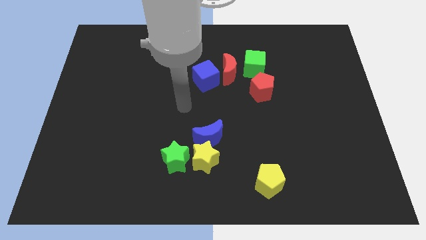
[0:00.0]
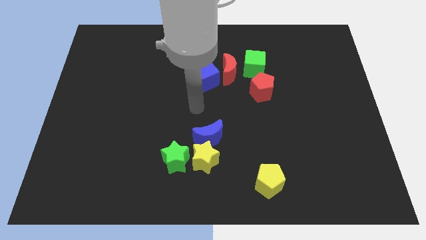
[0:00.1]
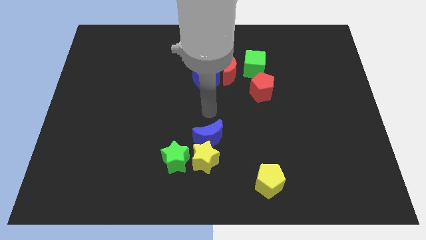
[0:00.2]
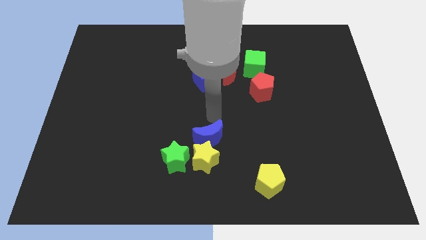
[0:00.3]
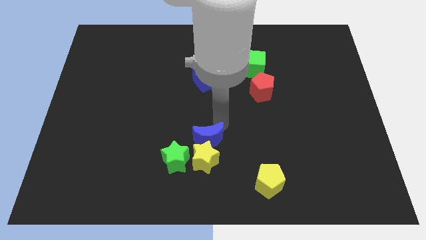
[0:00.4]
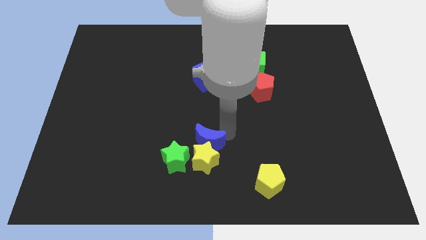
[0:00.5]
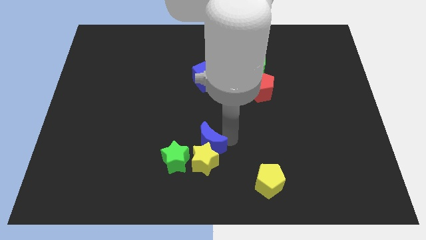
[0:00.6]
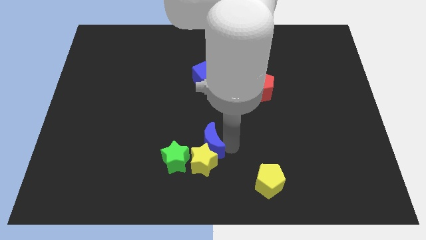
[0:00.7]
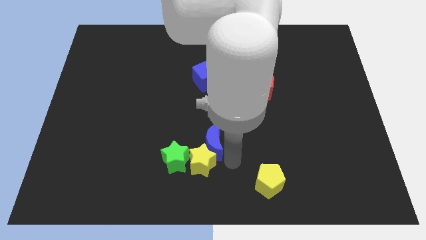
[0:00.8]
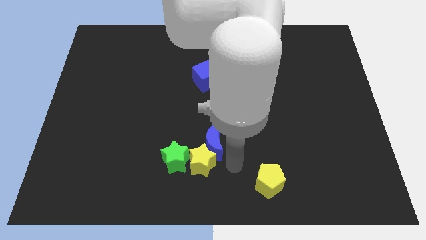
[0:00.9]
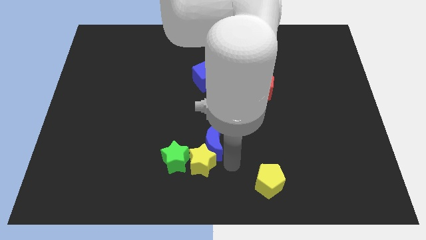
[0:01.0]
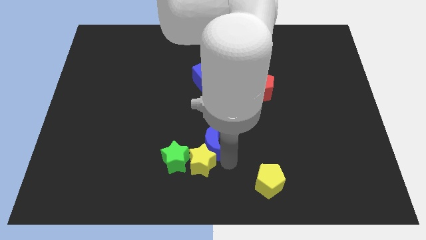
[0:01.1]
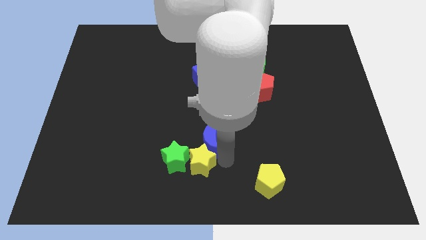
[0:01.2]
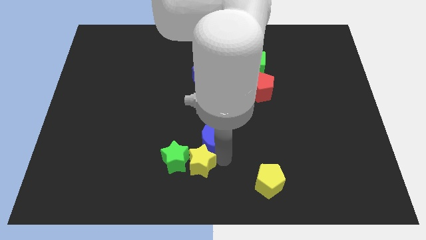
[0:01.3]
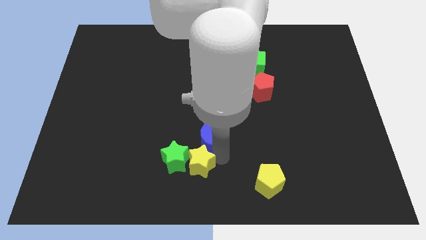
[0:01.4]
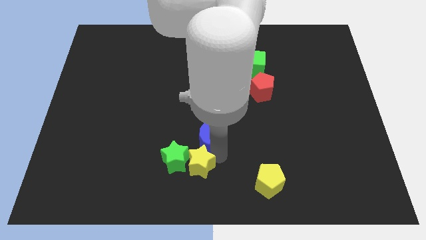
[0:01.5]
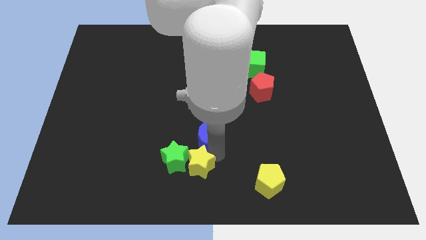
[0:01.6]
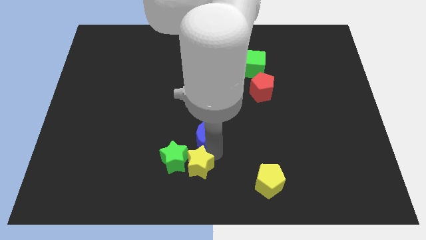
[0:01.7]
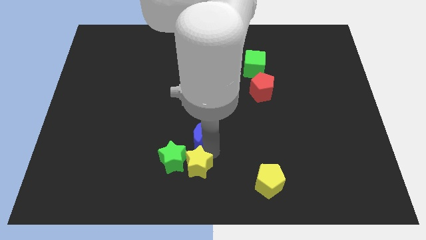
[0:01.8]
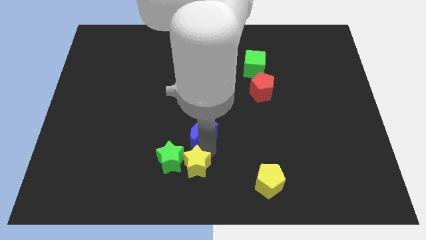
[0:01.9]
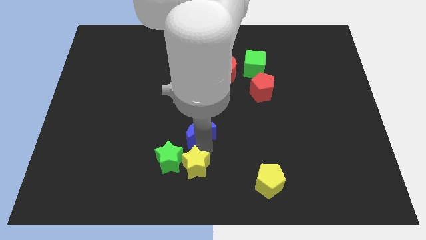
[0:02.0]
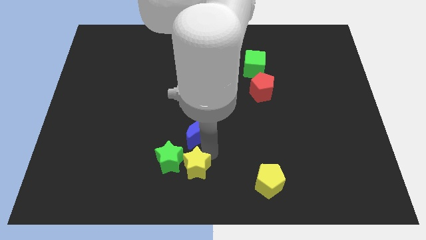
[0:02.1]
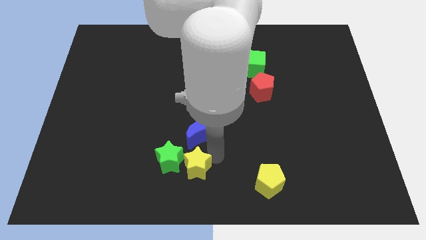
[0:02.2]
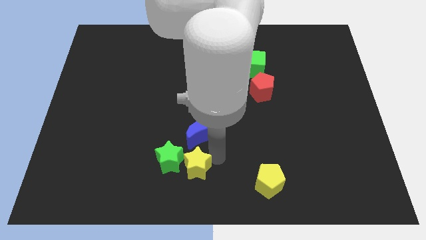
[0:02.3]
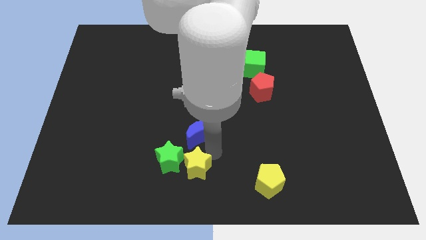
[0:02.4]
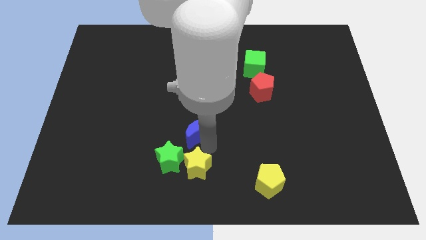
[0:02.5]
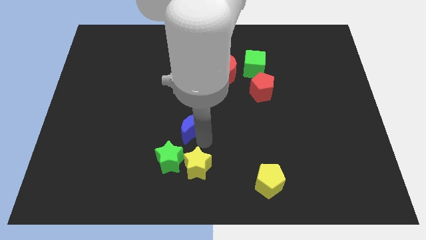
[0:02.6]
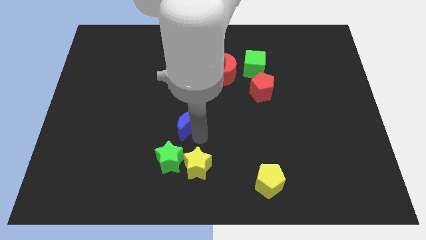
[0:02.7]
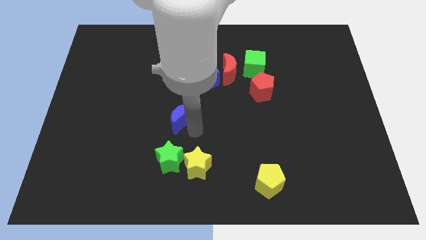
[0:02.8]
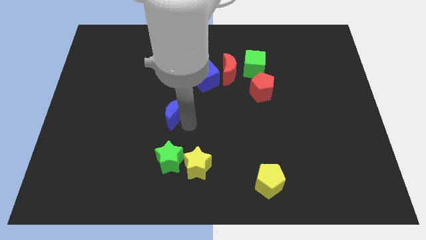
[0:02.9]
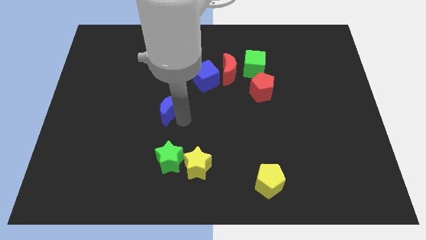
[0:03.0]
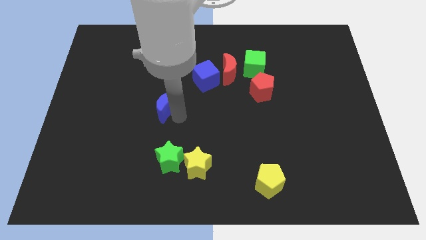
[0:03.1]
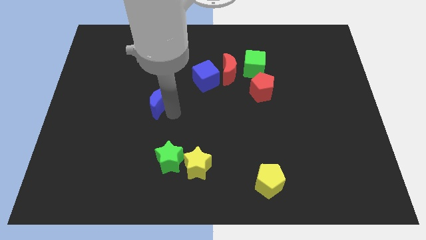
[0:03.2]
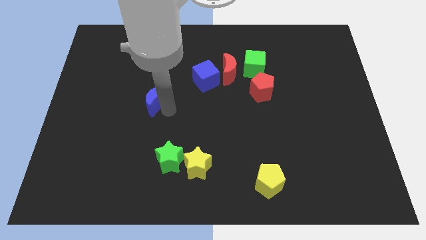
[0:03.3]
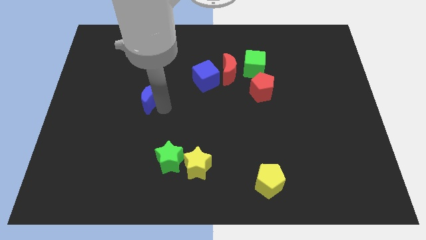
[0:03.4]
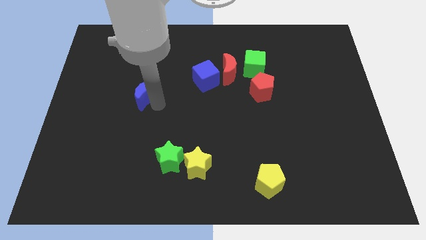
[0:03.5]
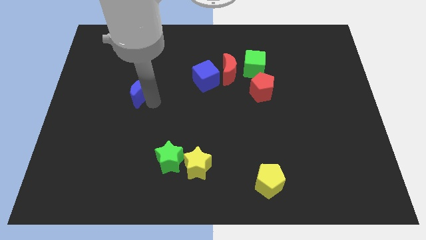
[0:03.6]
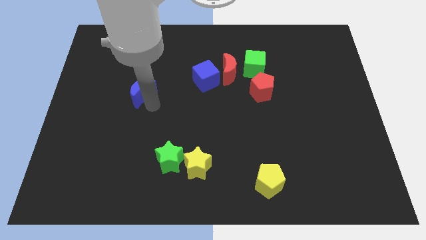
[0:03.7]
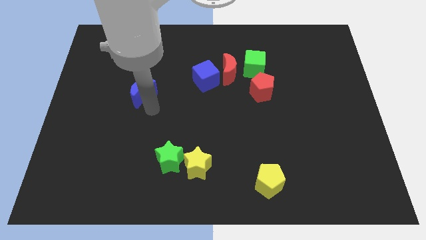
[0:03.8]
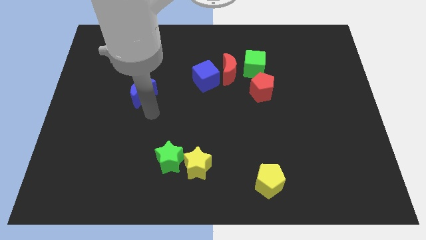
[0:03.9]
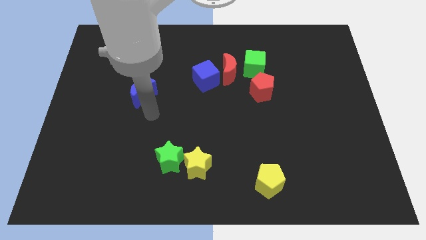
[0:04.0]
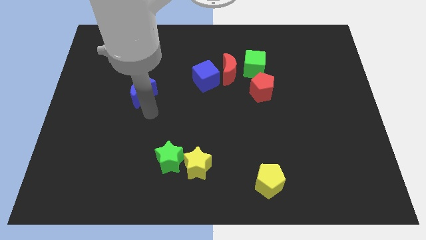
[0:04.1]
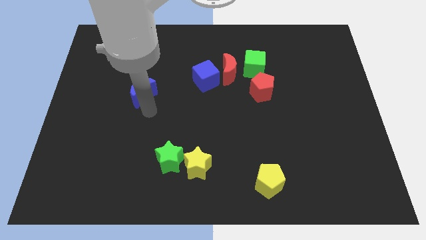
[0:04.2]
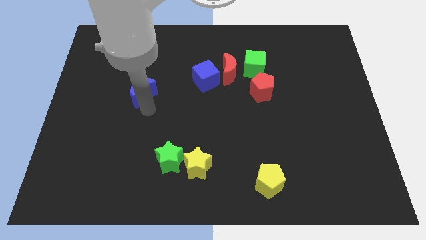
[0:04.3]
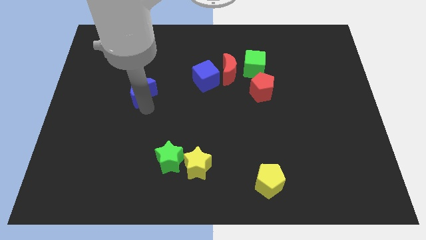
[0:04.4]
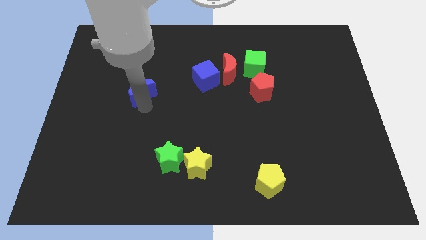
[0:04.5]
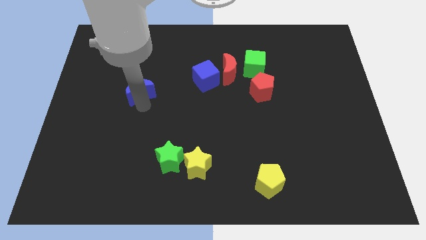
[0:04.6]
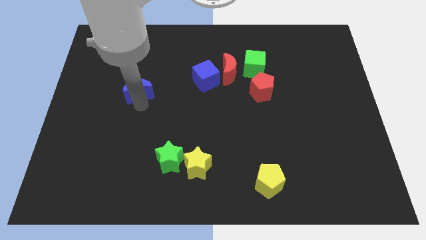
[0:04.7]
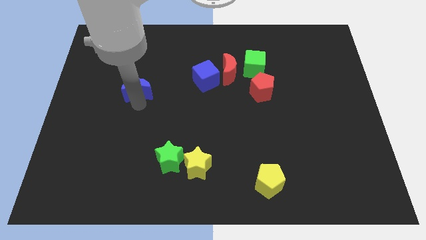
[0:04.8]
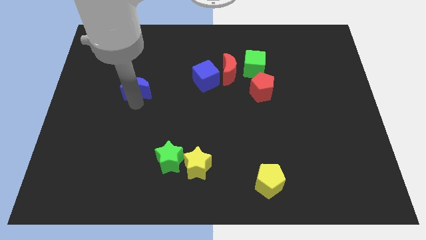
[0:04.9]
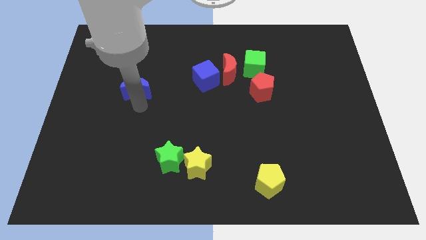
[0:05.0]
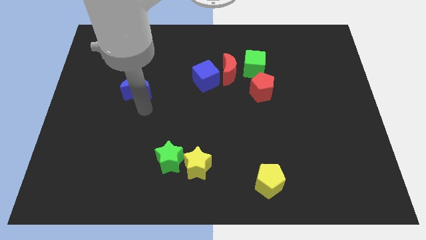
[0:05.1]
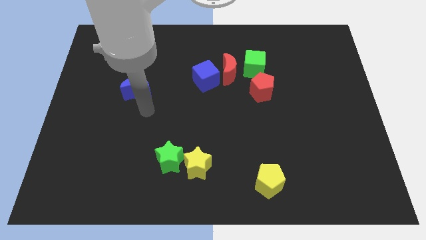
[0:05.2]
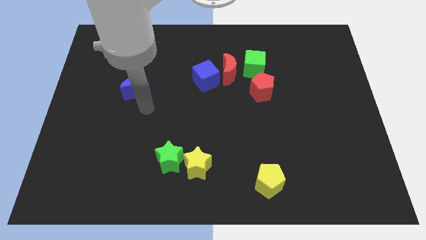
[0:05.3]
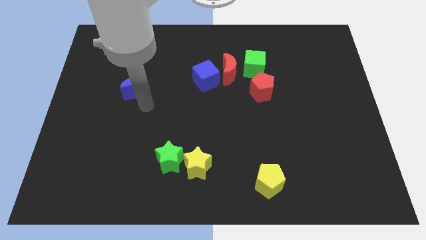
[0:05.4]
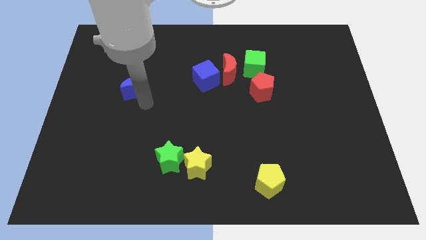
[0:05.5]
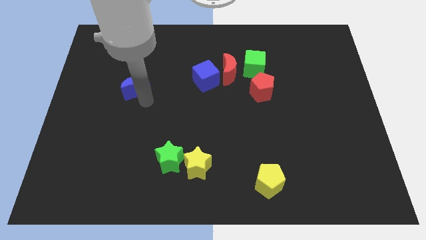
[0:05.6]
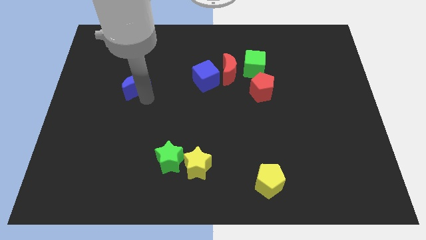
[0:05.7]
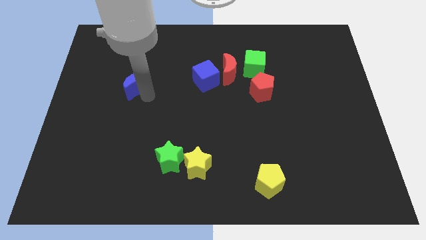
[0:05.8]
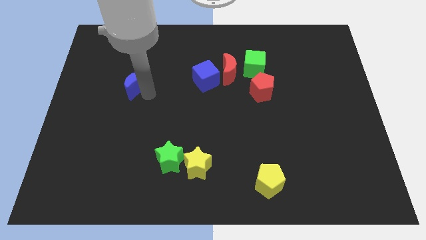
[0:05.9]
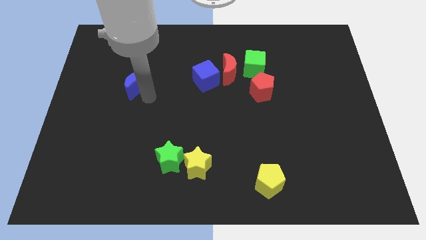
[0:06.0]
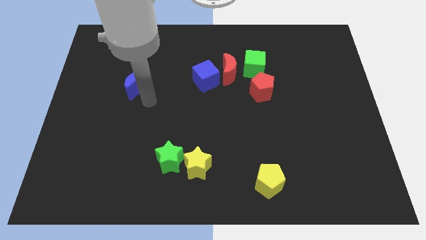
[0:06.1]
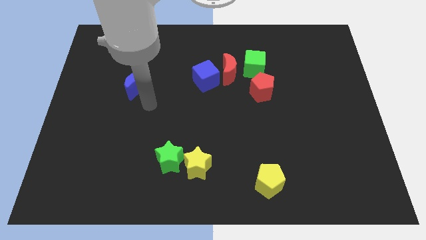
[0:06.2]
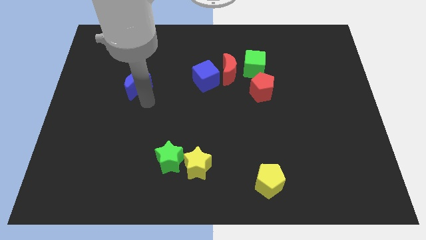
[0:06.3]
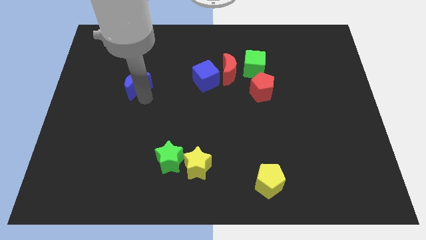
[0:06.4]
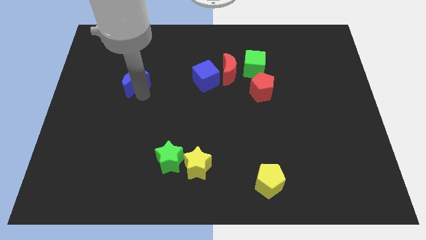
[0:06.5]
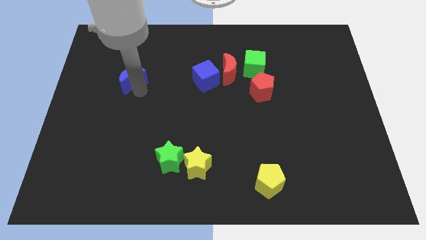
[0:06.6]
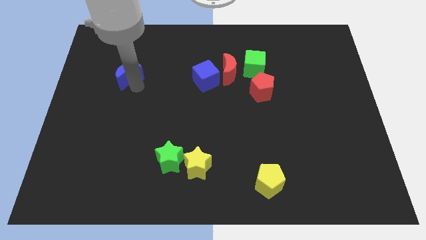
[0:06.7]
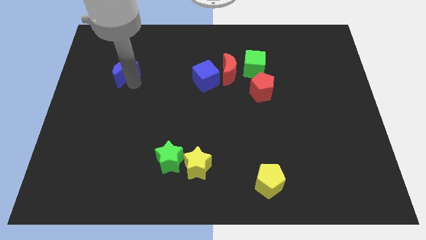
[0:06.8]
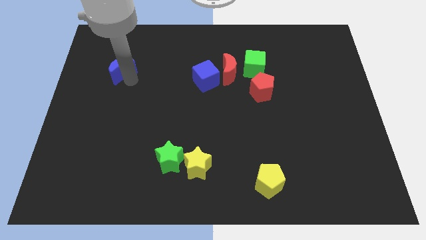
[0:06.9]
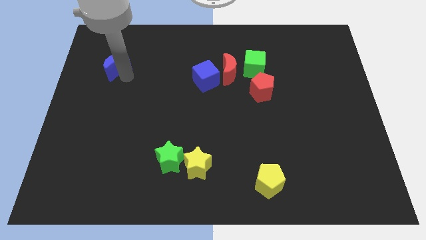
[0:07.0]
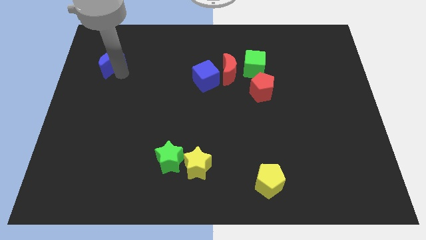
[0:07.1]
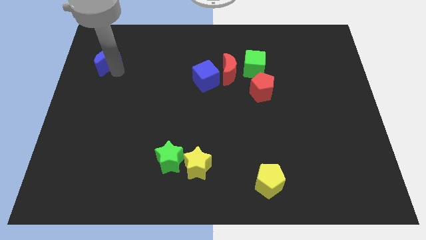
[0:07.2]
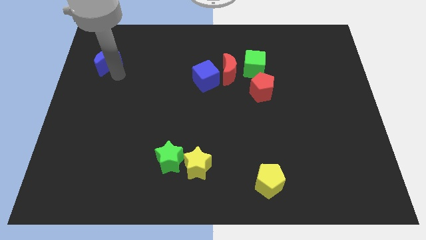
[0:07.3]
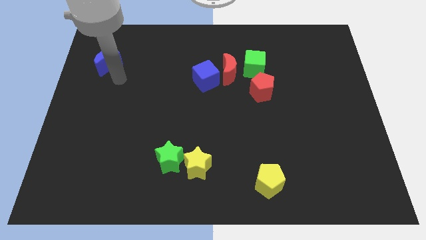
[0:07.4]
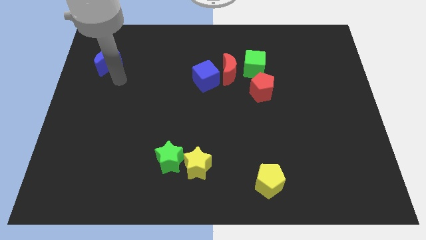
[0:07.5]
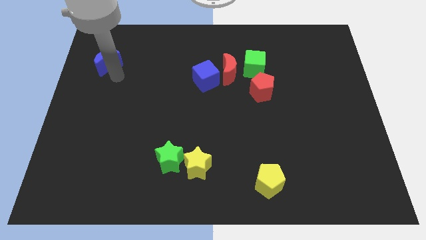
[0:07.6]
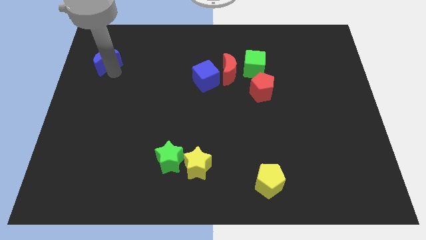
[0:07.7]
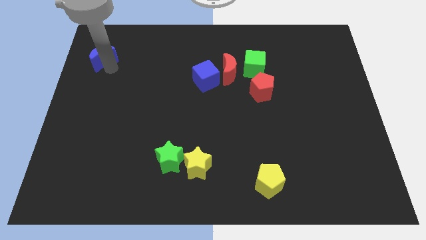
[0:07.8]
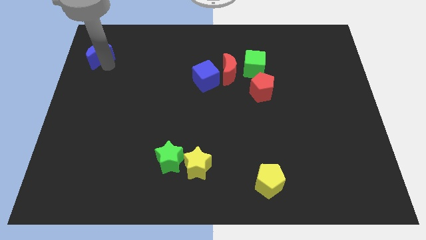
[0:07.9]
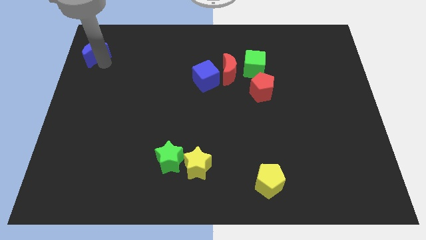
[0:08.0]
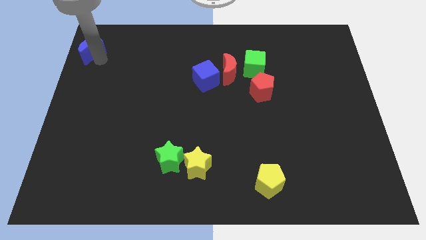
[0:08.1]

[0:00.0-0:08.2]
push the blue moon to the top left of the board
